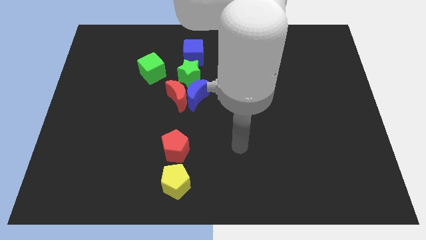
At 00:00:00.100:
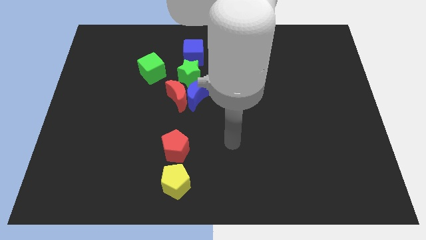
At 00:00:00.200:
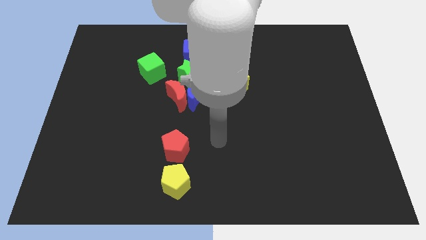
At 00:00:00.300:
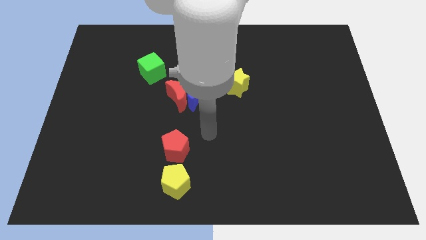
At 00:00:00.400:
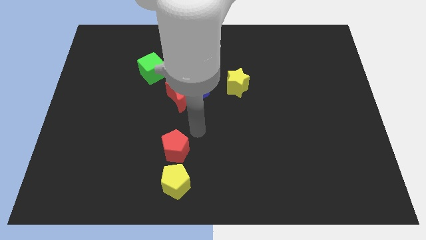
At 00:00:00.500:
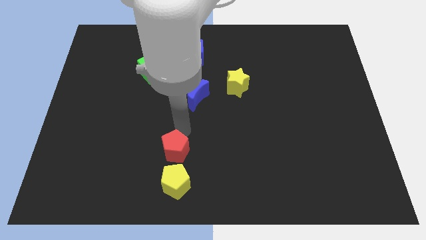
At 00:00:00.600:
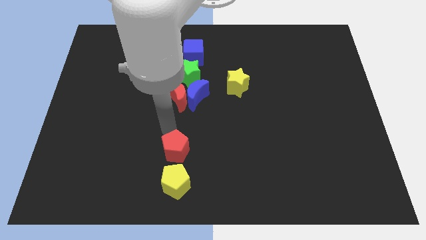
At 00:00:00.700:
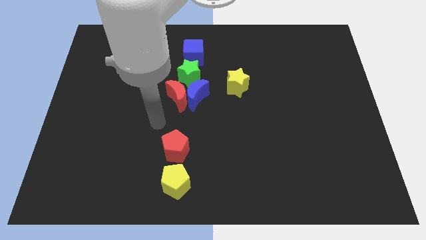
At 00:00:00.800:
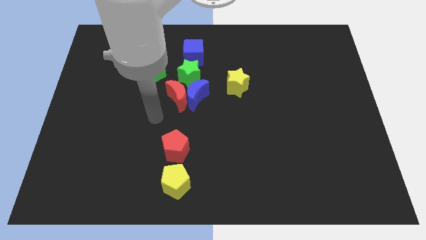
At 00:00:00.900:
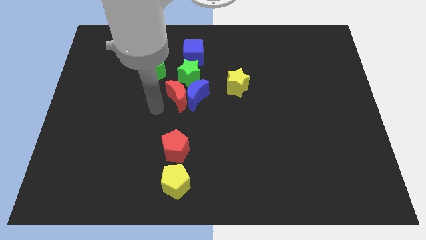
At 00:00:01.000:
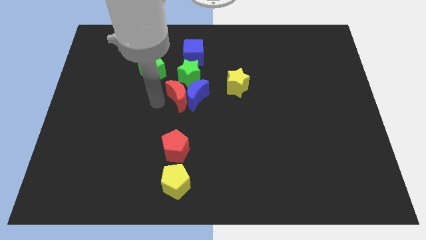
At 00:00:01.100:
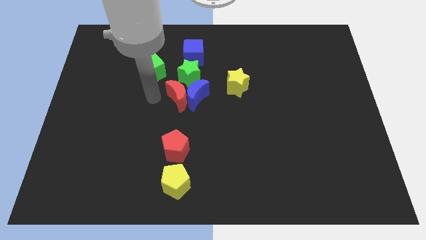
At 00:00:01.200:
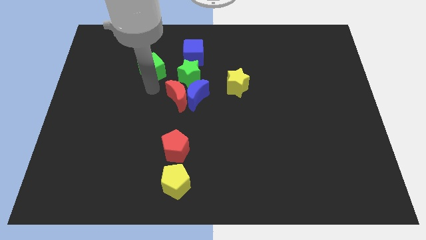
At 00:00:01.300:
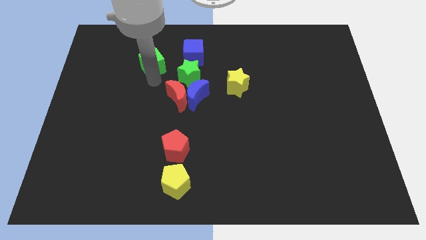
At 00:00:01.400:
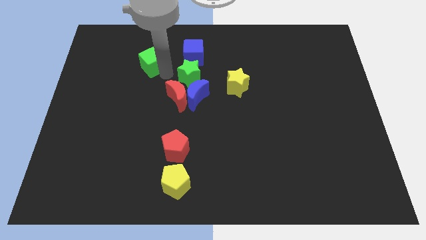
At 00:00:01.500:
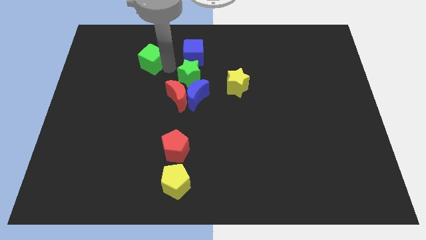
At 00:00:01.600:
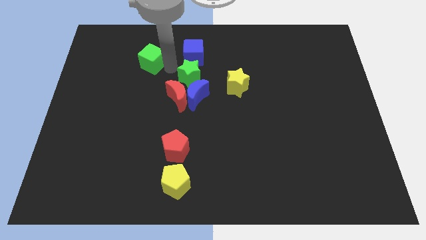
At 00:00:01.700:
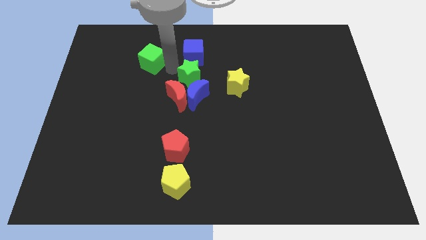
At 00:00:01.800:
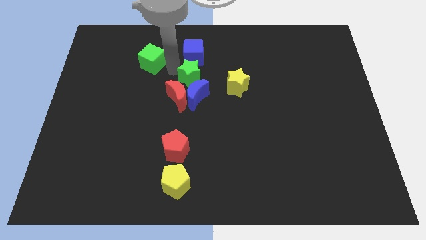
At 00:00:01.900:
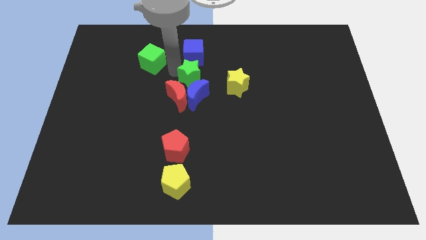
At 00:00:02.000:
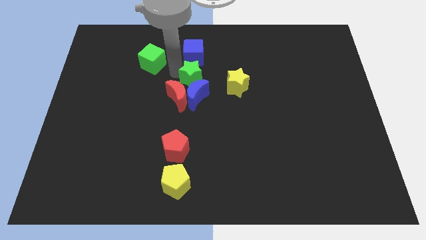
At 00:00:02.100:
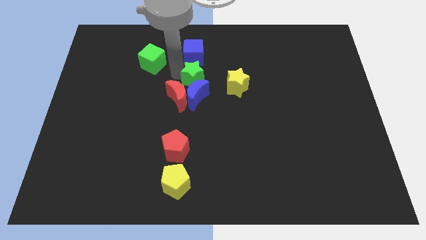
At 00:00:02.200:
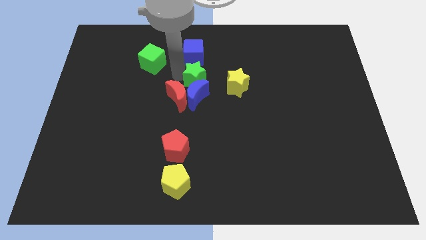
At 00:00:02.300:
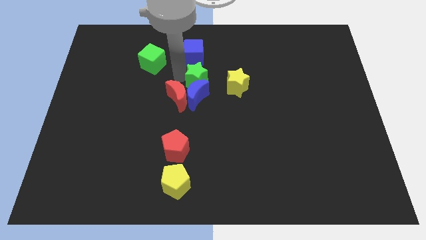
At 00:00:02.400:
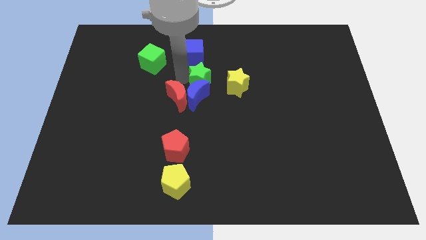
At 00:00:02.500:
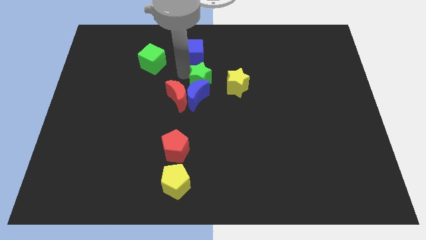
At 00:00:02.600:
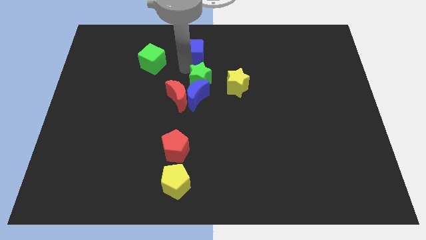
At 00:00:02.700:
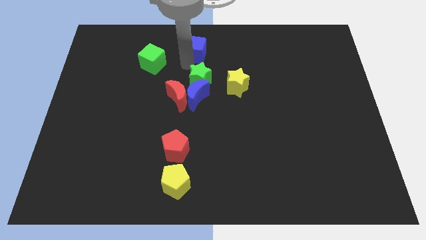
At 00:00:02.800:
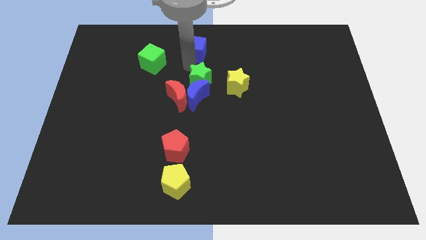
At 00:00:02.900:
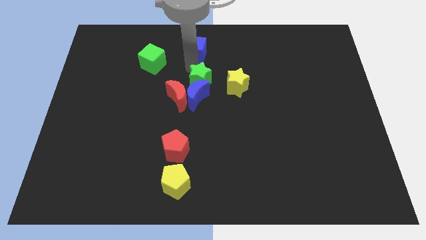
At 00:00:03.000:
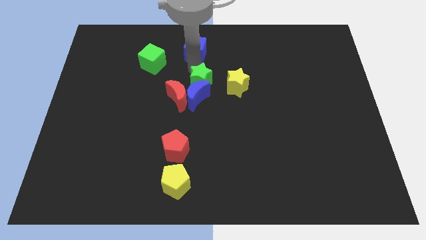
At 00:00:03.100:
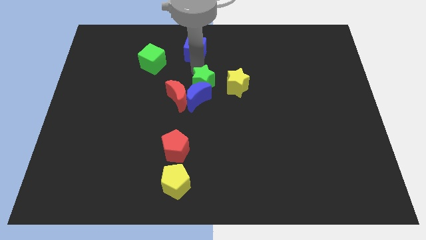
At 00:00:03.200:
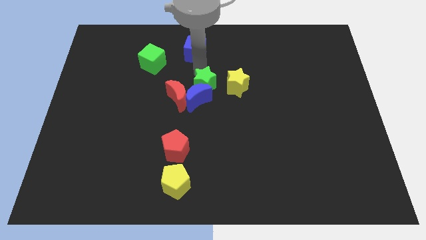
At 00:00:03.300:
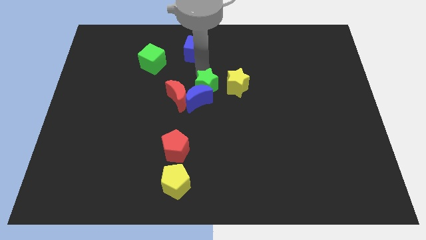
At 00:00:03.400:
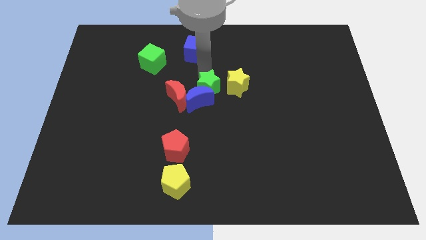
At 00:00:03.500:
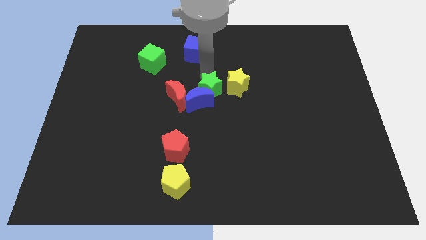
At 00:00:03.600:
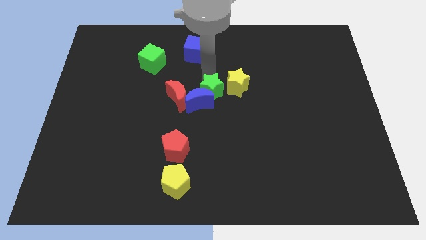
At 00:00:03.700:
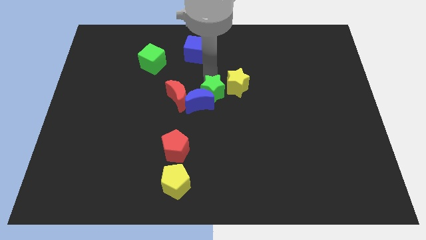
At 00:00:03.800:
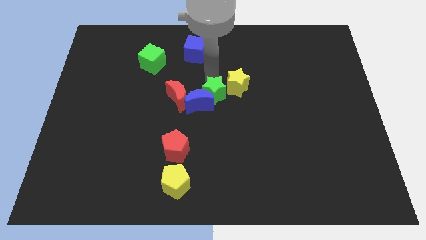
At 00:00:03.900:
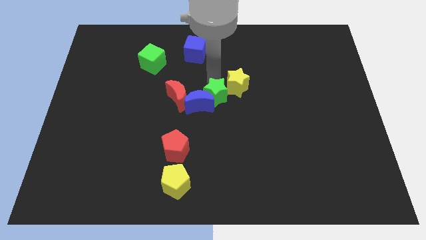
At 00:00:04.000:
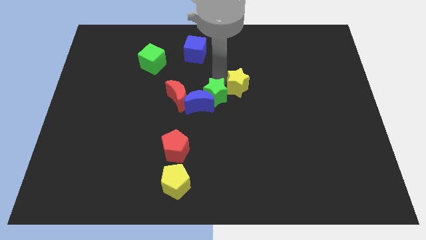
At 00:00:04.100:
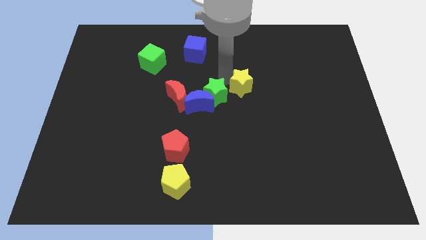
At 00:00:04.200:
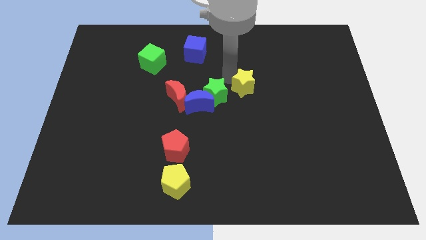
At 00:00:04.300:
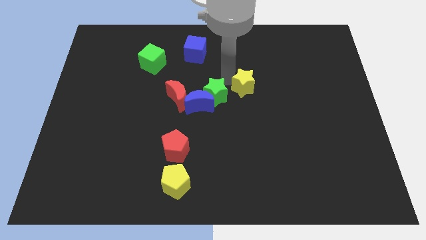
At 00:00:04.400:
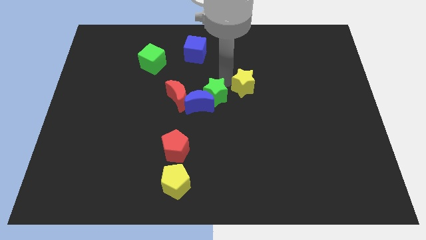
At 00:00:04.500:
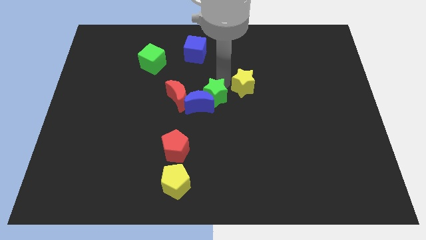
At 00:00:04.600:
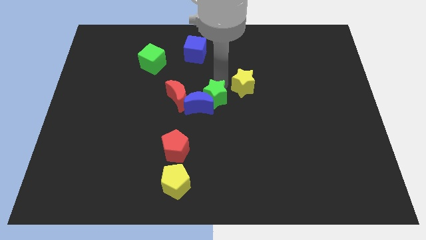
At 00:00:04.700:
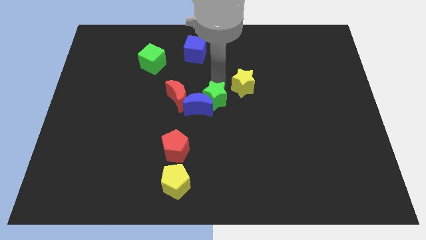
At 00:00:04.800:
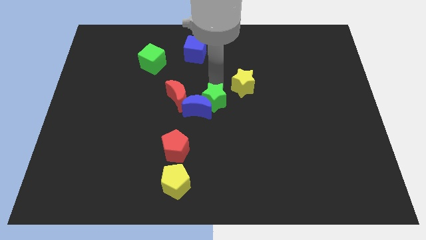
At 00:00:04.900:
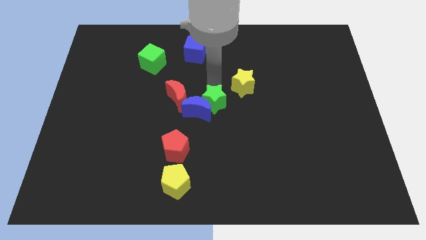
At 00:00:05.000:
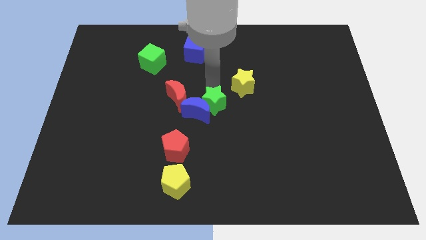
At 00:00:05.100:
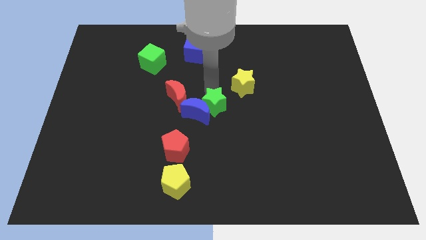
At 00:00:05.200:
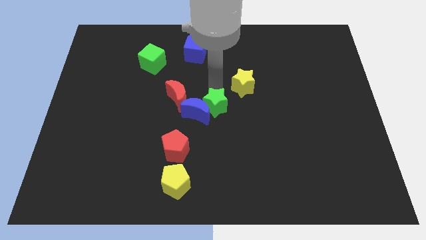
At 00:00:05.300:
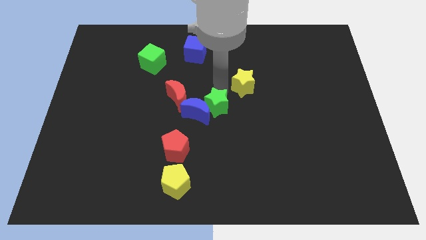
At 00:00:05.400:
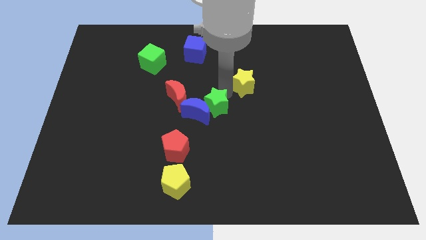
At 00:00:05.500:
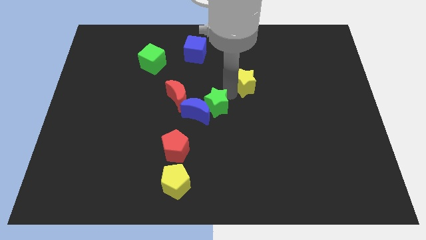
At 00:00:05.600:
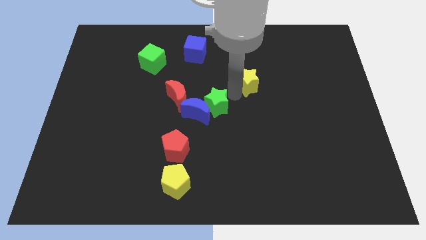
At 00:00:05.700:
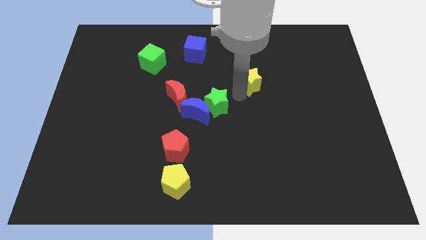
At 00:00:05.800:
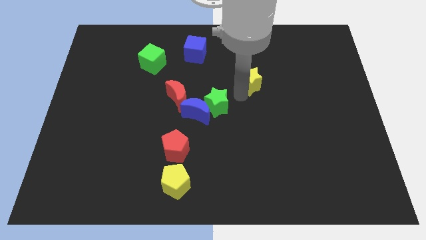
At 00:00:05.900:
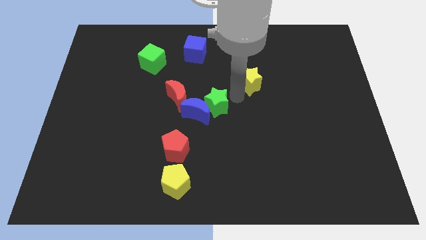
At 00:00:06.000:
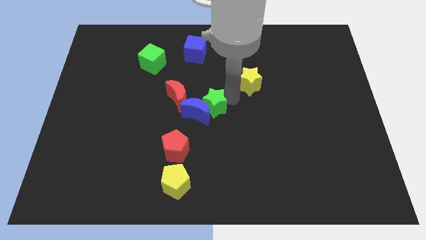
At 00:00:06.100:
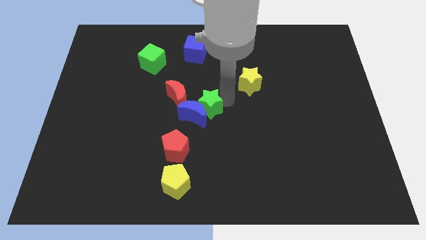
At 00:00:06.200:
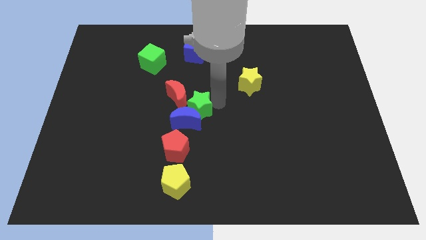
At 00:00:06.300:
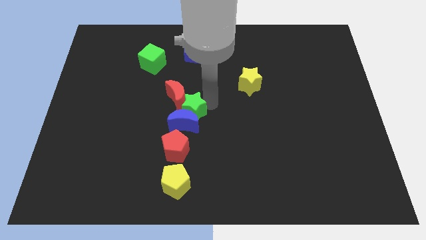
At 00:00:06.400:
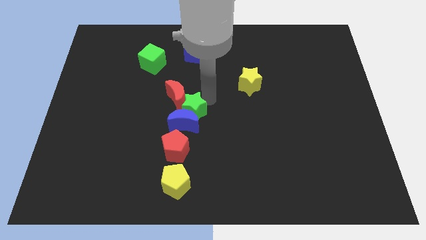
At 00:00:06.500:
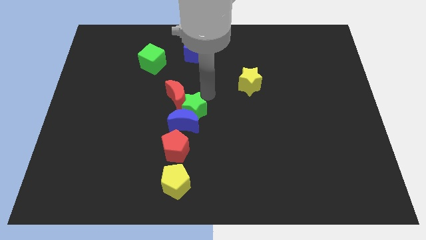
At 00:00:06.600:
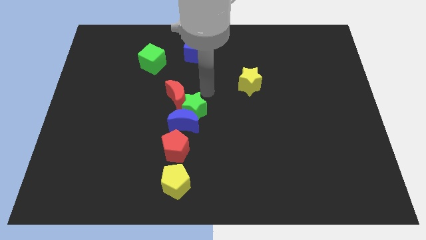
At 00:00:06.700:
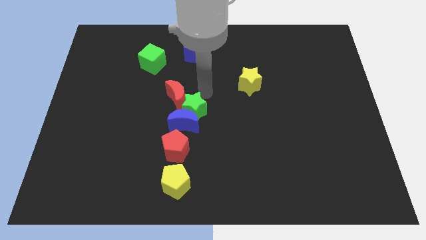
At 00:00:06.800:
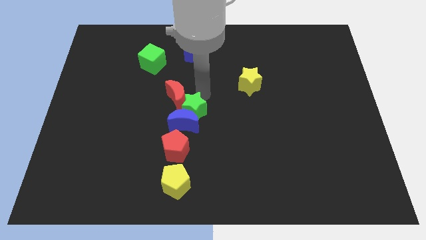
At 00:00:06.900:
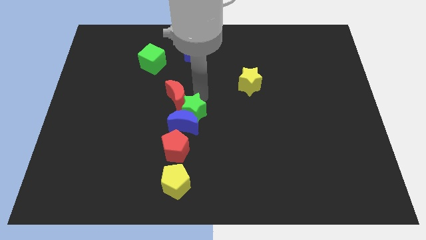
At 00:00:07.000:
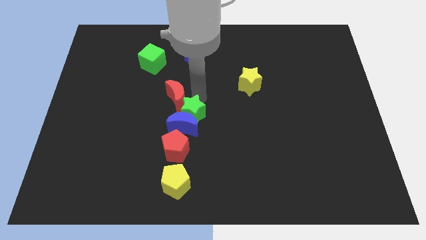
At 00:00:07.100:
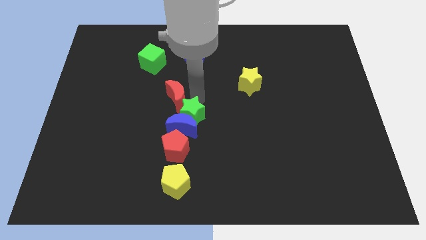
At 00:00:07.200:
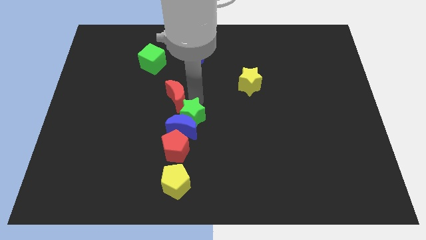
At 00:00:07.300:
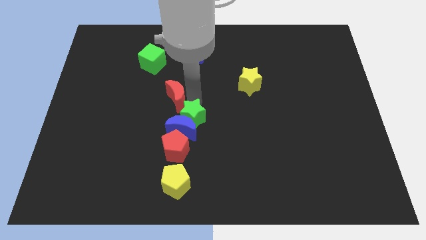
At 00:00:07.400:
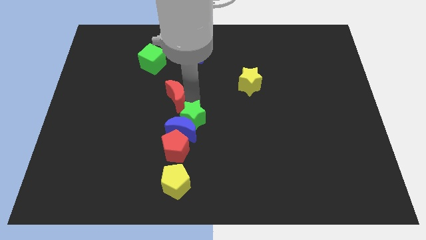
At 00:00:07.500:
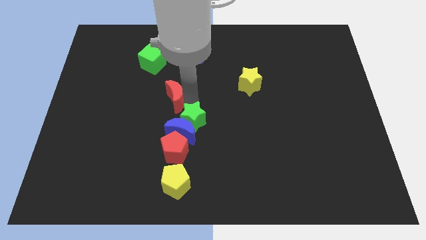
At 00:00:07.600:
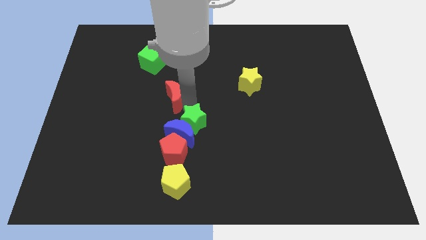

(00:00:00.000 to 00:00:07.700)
push the green star above the yellow pentagon
